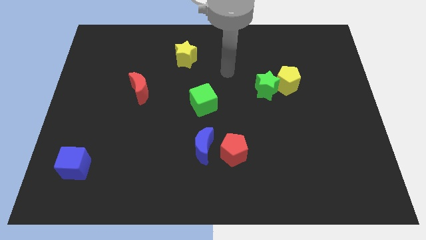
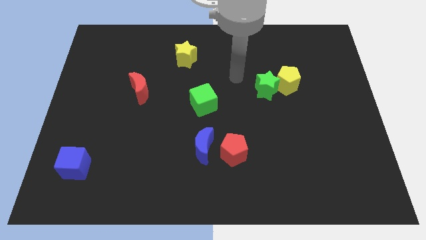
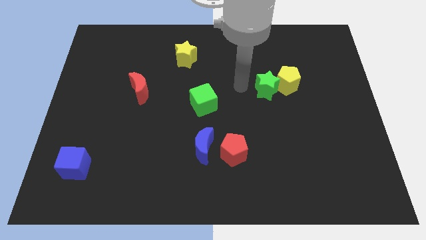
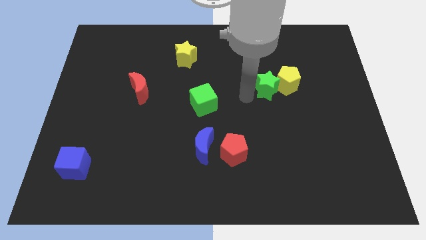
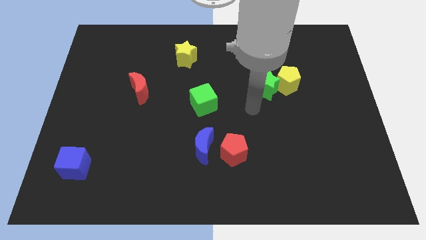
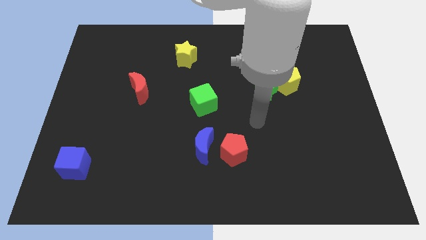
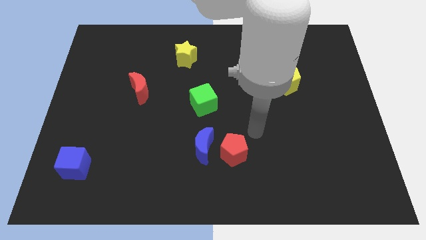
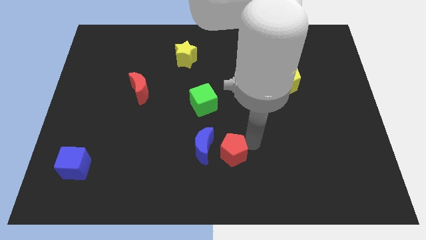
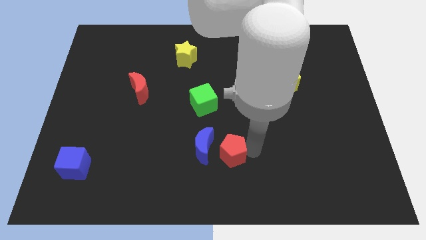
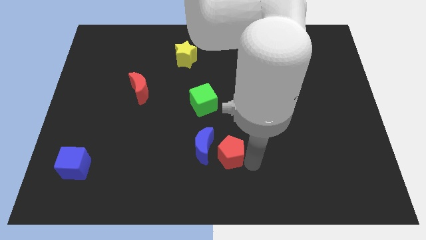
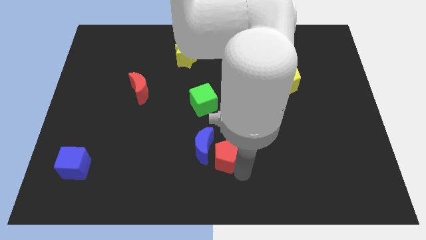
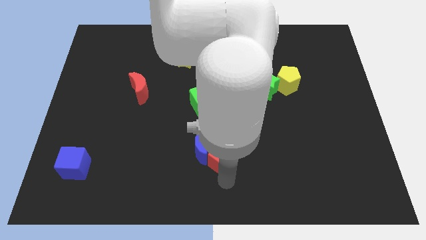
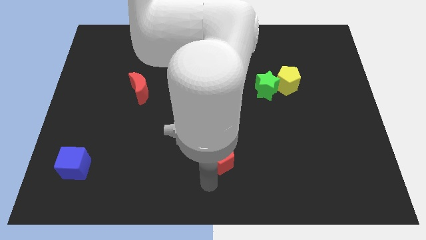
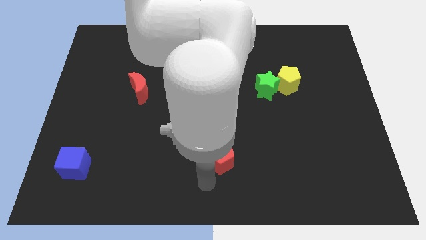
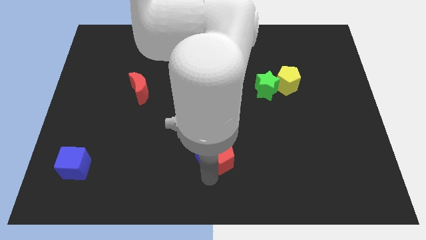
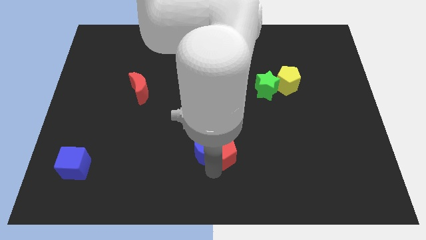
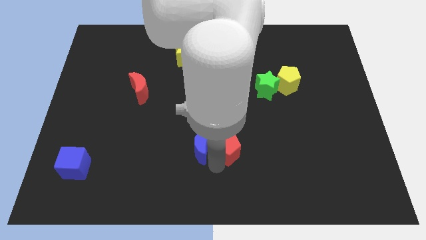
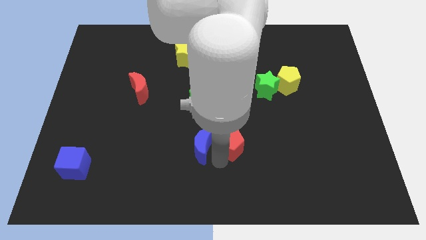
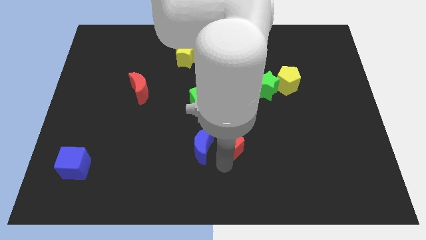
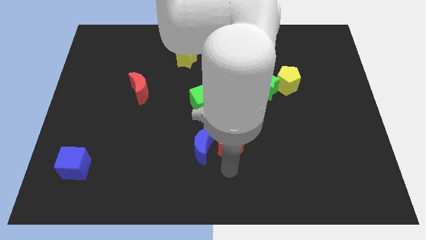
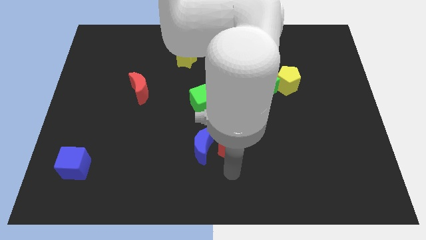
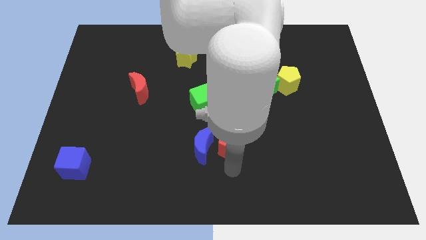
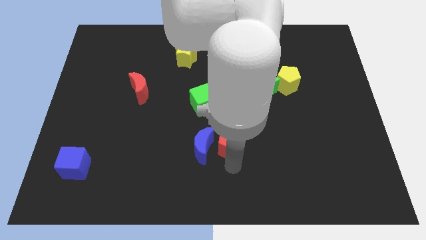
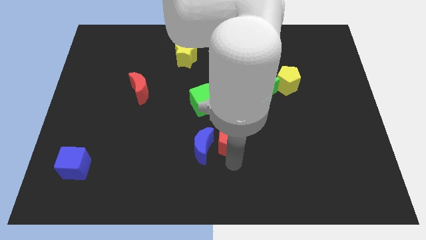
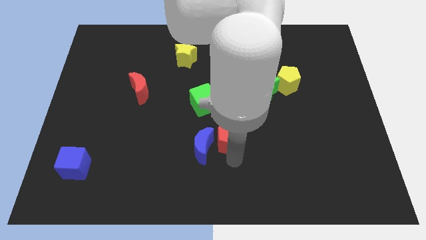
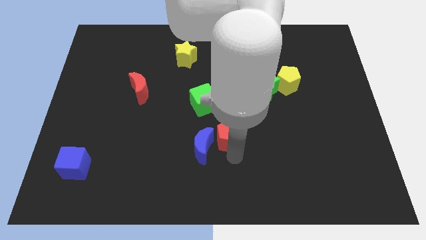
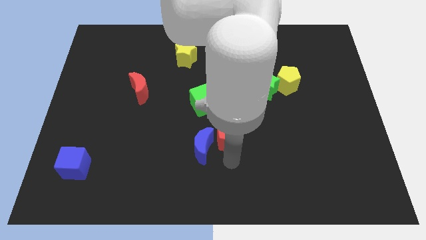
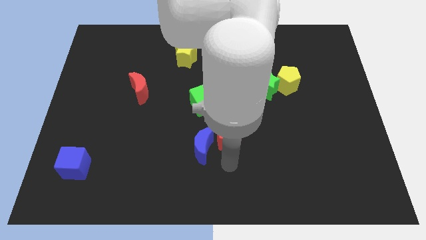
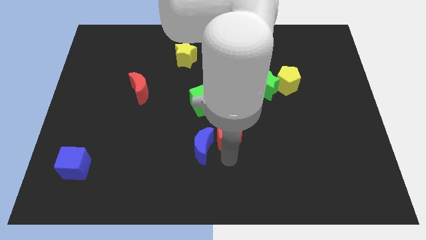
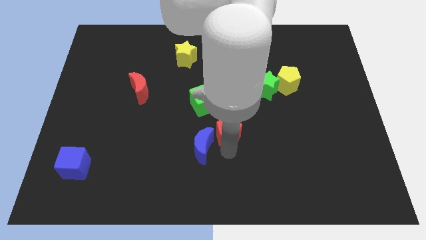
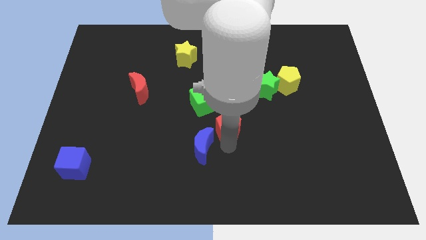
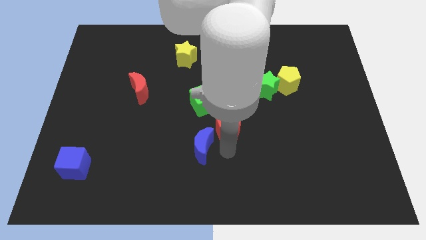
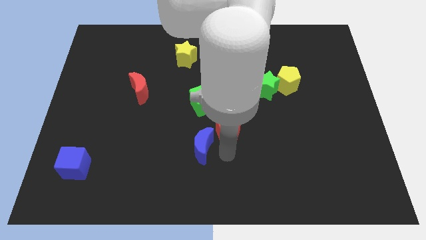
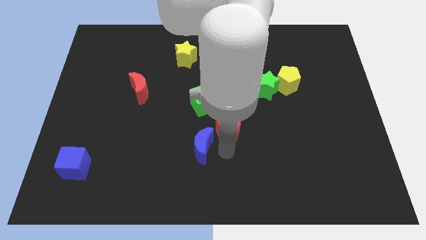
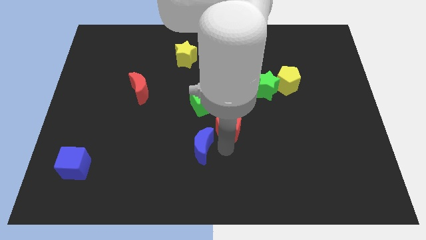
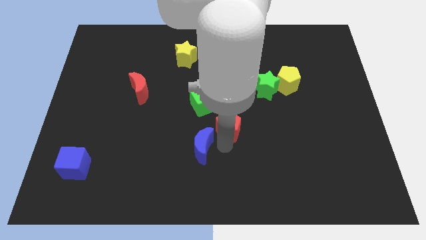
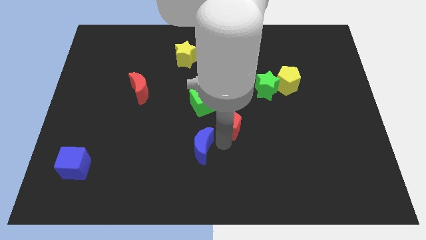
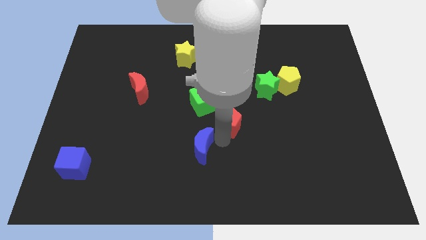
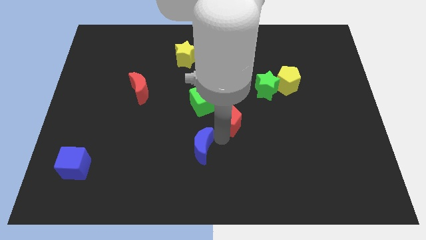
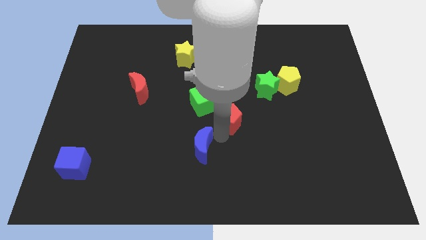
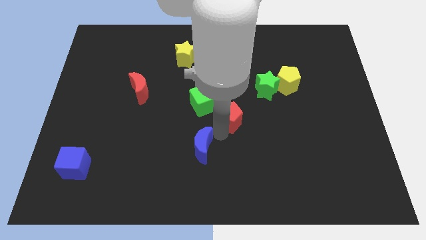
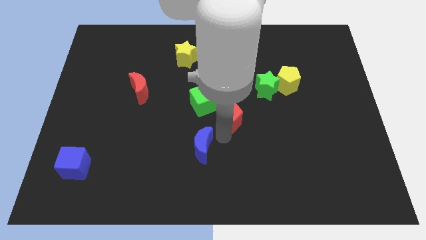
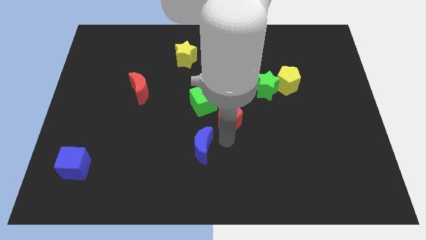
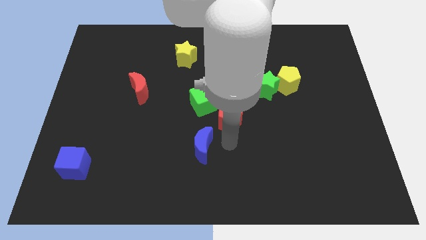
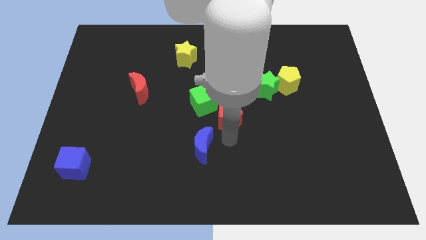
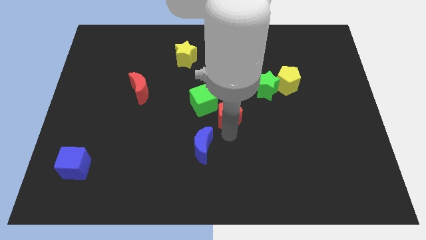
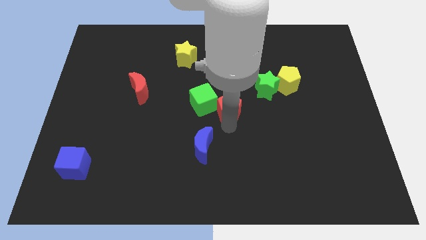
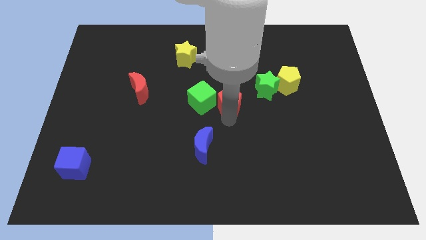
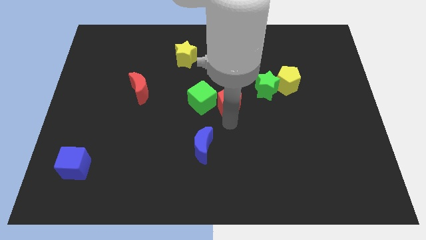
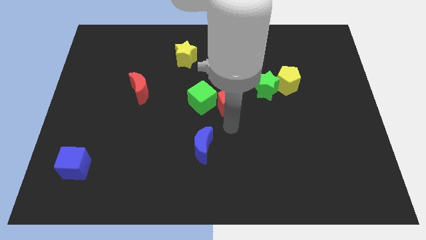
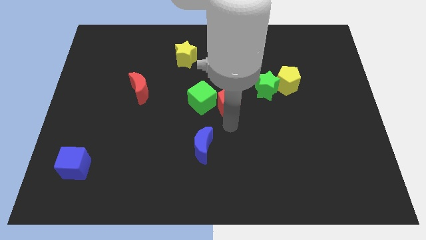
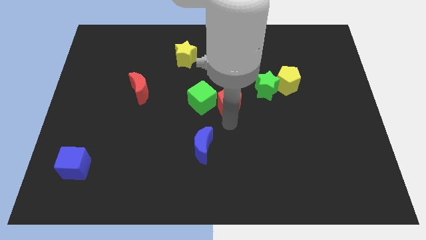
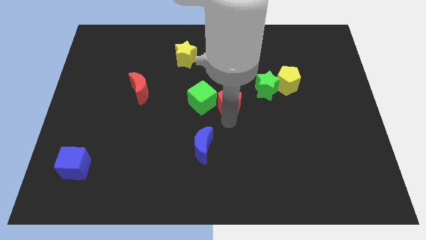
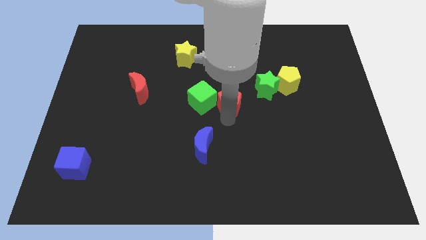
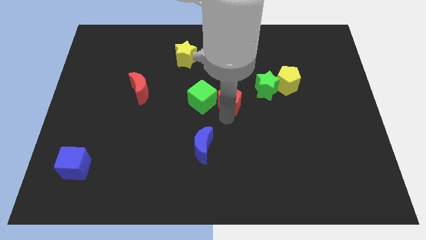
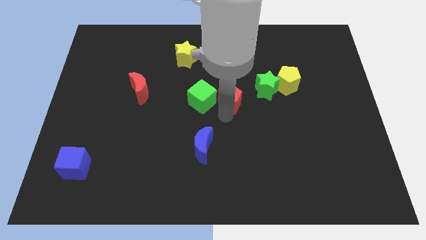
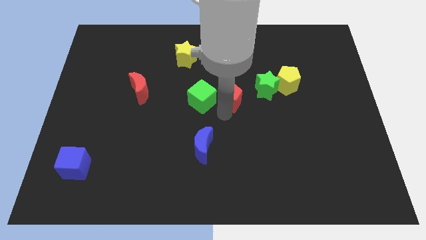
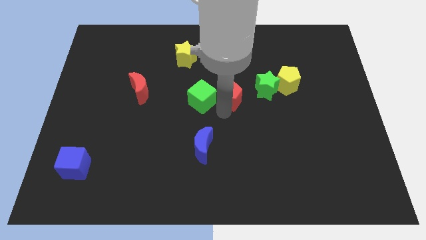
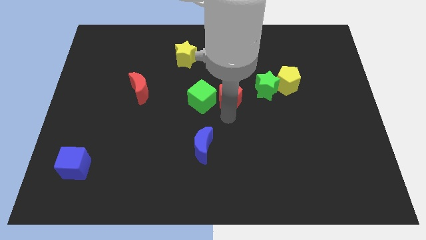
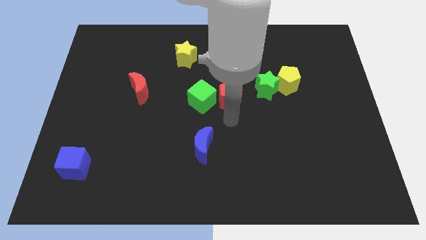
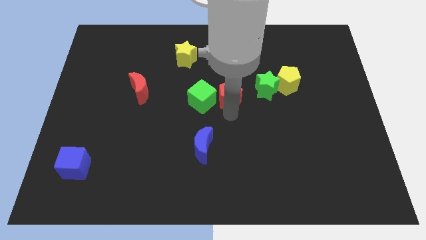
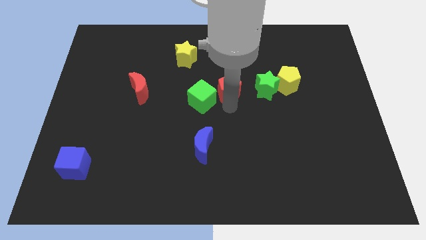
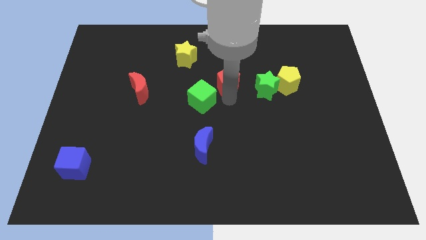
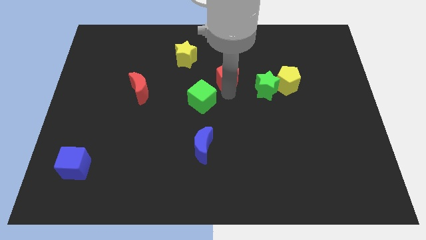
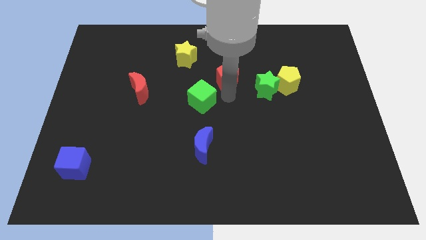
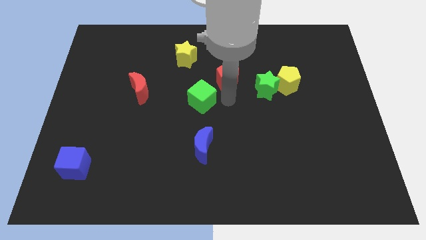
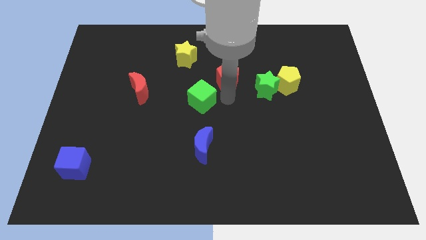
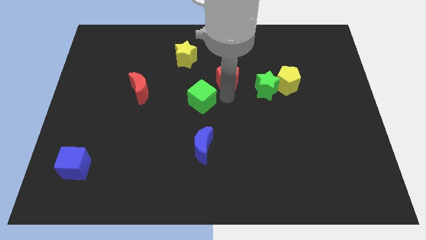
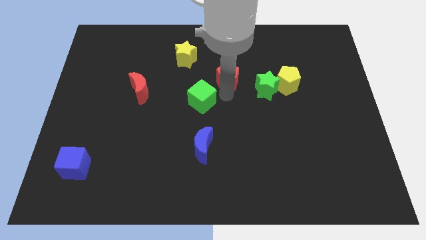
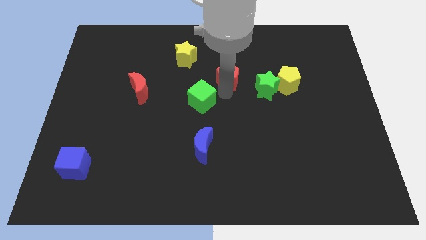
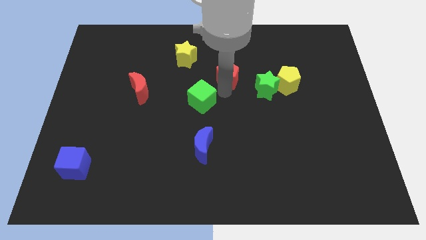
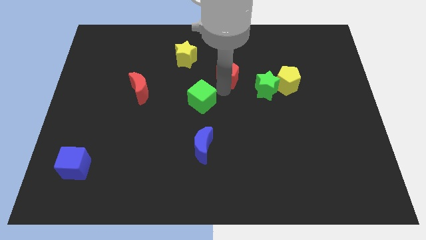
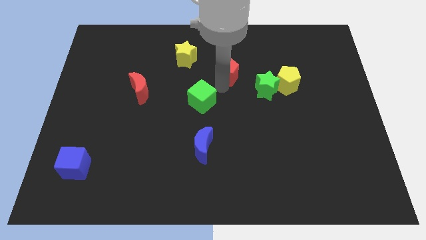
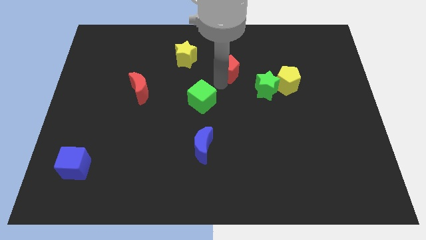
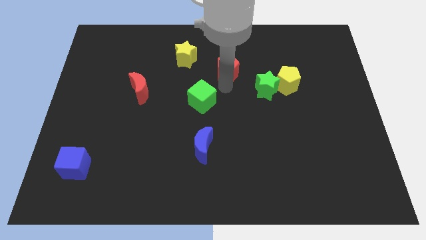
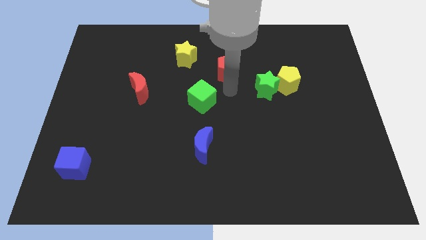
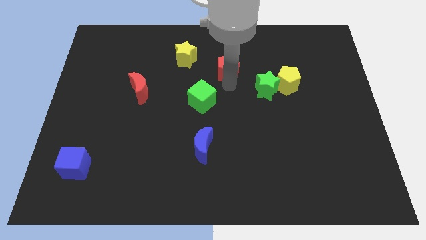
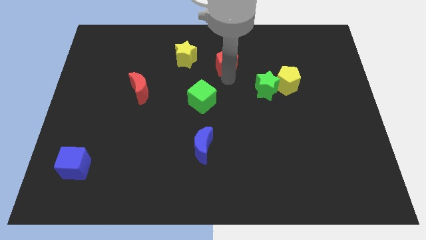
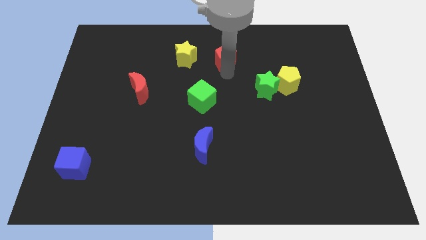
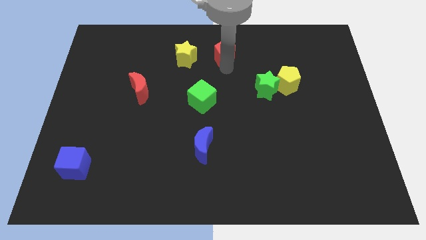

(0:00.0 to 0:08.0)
move the red pentagon to the towards your base
